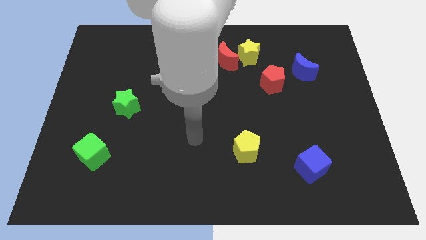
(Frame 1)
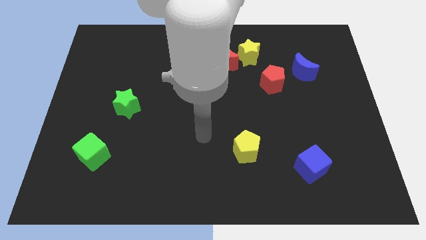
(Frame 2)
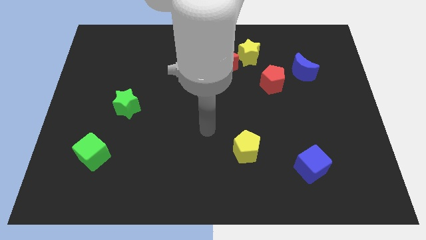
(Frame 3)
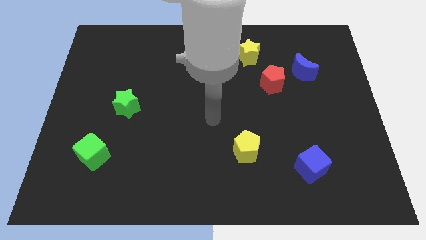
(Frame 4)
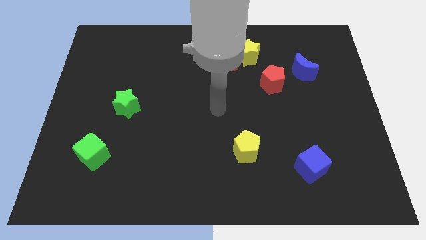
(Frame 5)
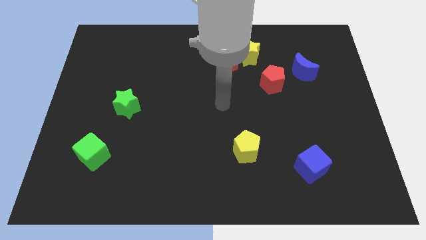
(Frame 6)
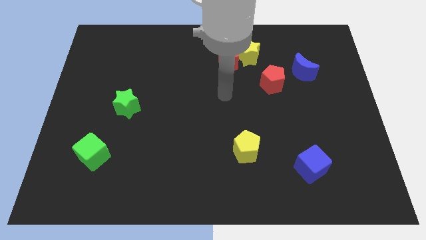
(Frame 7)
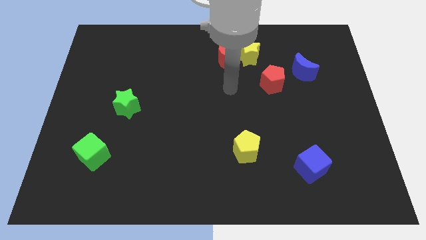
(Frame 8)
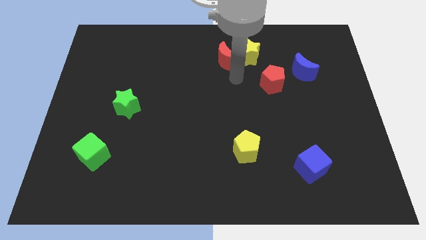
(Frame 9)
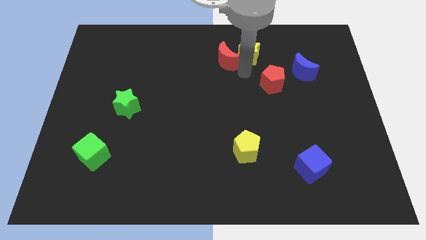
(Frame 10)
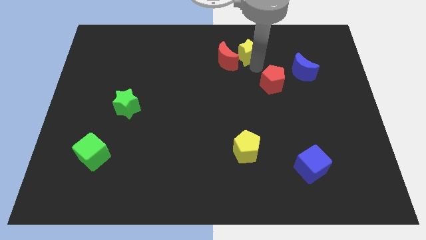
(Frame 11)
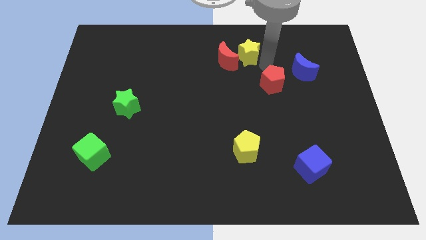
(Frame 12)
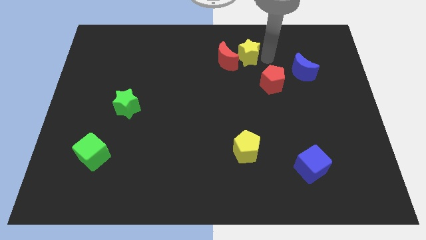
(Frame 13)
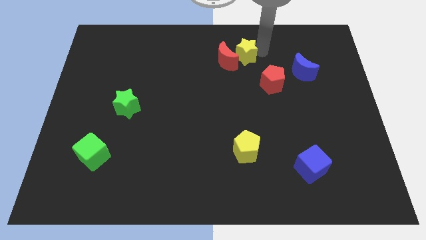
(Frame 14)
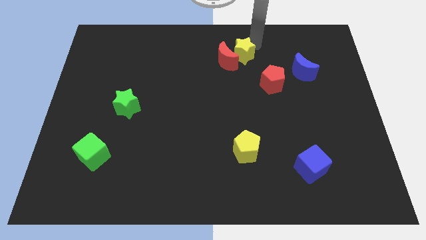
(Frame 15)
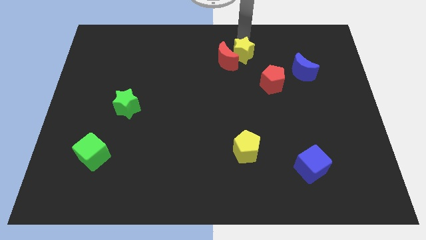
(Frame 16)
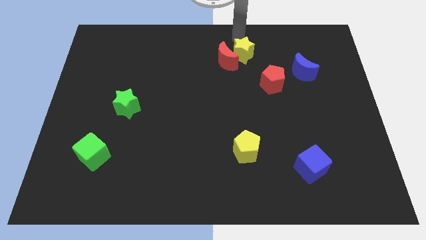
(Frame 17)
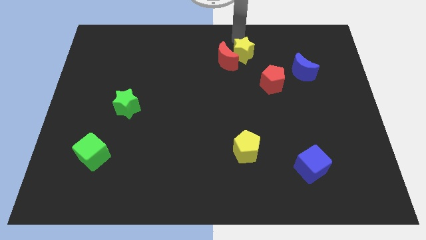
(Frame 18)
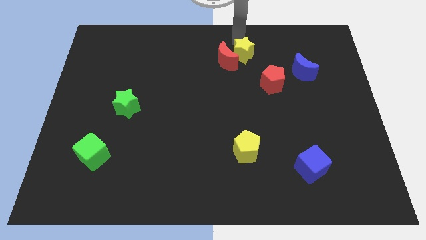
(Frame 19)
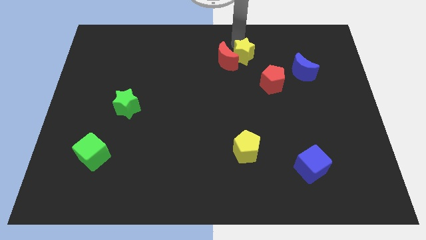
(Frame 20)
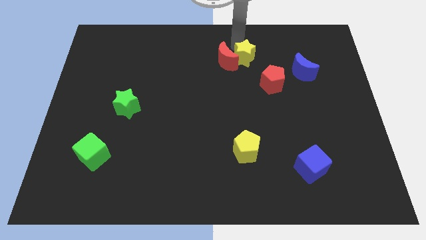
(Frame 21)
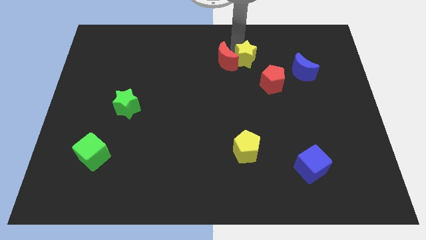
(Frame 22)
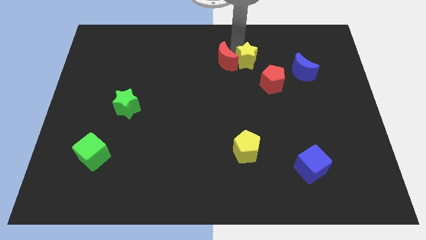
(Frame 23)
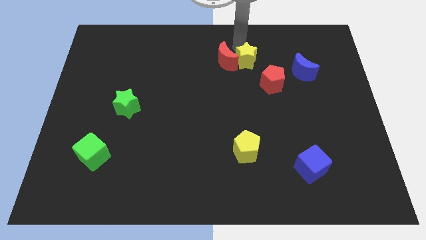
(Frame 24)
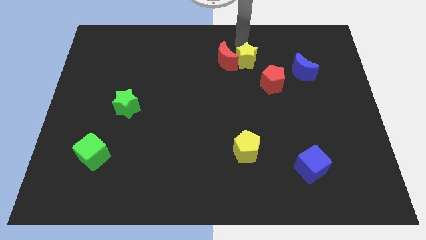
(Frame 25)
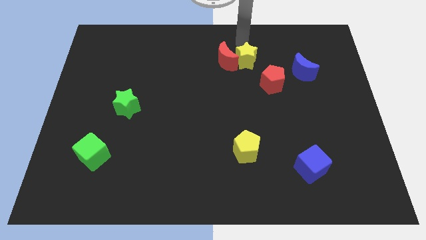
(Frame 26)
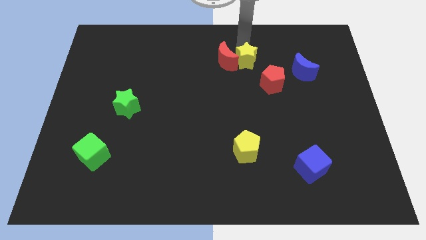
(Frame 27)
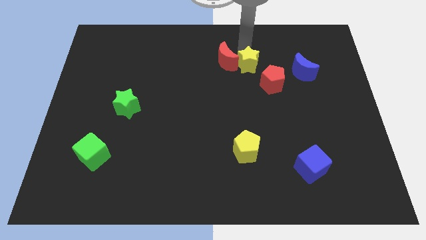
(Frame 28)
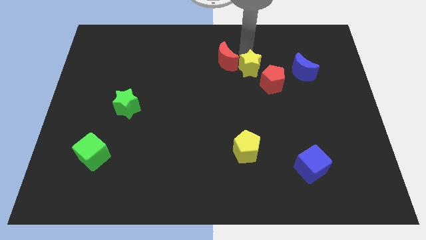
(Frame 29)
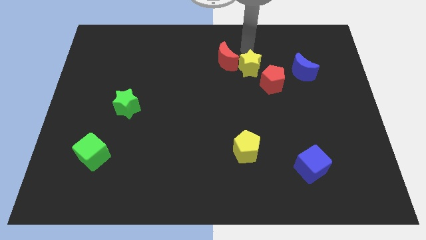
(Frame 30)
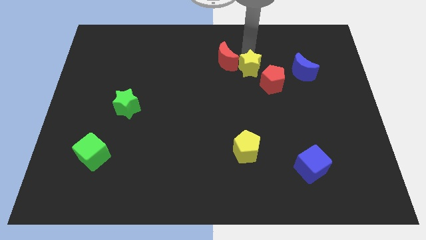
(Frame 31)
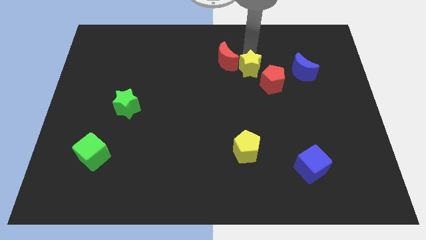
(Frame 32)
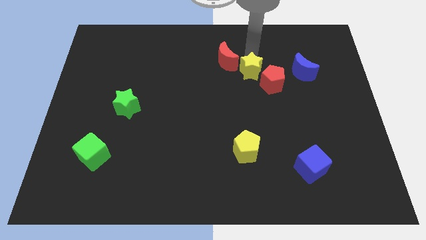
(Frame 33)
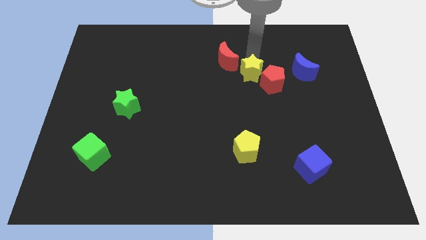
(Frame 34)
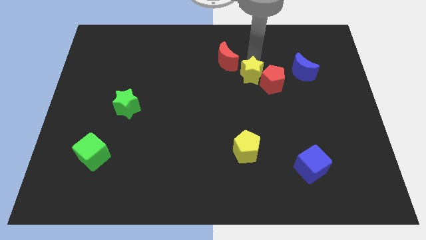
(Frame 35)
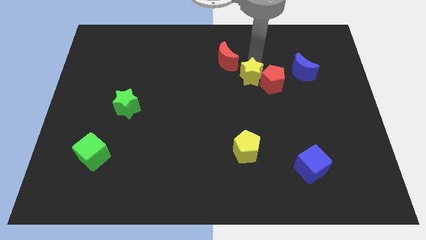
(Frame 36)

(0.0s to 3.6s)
push the yellow star somewhat down

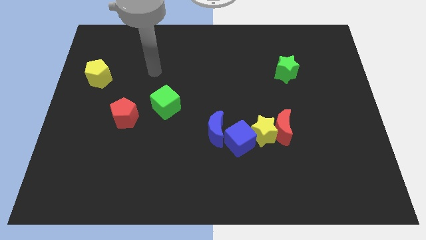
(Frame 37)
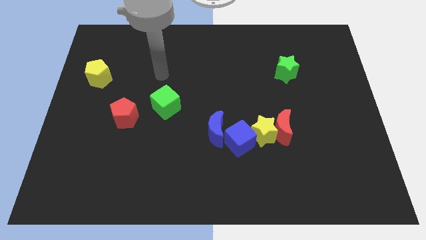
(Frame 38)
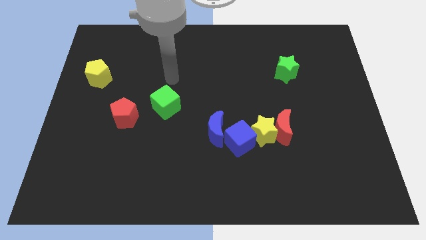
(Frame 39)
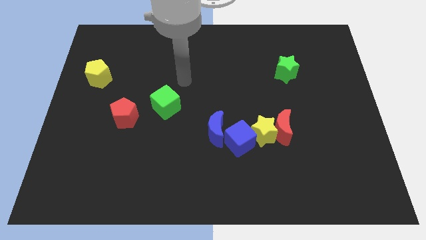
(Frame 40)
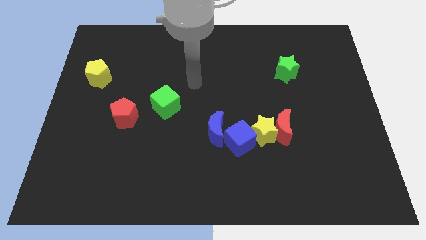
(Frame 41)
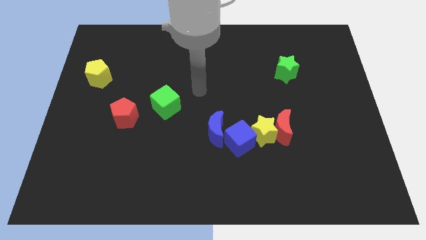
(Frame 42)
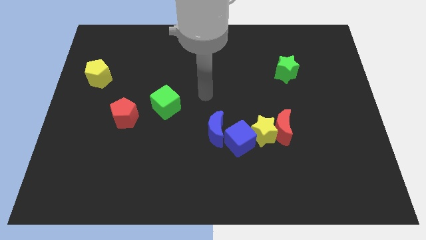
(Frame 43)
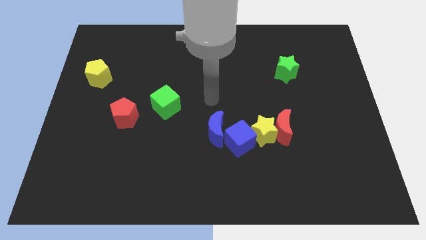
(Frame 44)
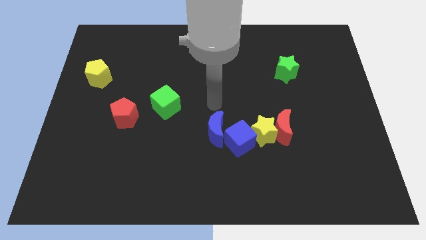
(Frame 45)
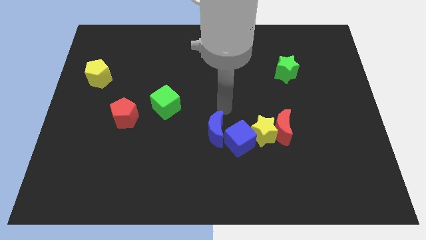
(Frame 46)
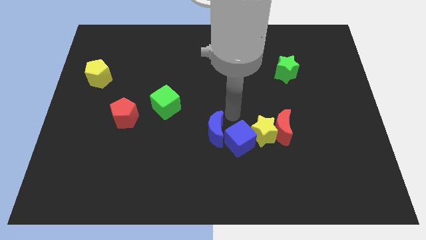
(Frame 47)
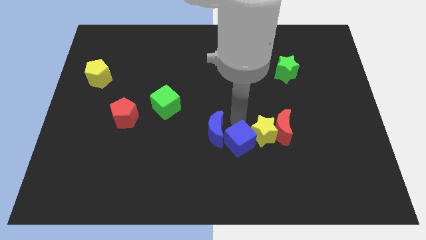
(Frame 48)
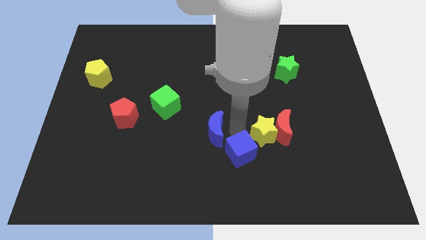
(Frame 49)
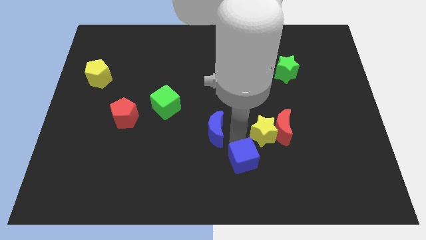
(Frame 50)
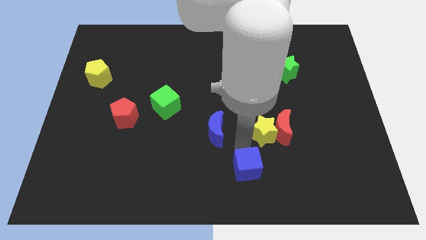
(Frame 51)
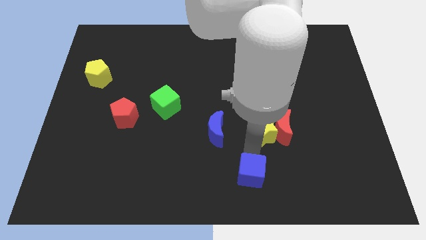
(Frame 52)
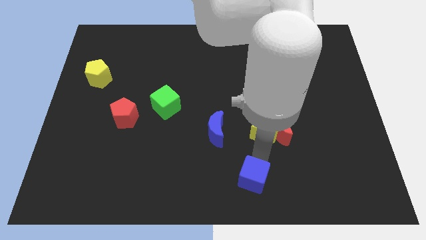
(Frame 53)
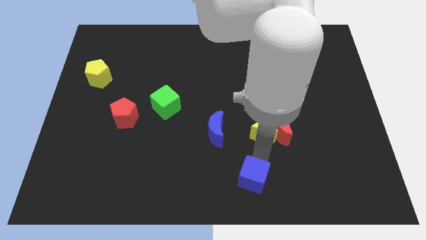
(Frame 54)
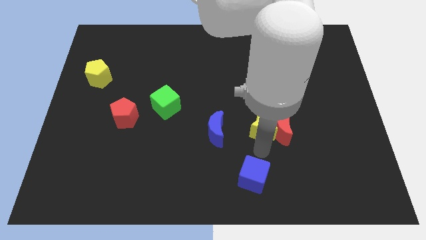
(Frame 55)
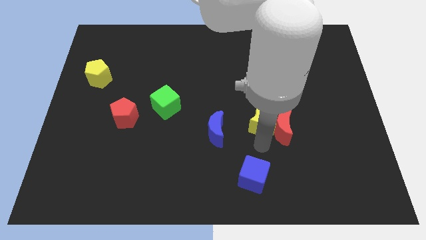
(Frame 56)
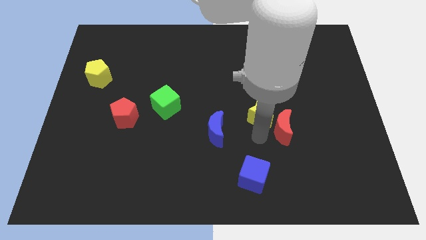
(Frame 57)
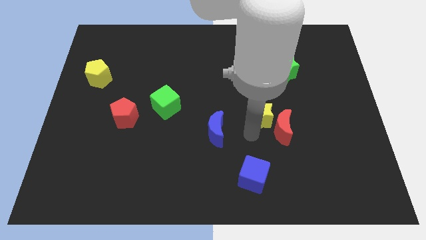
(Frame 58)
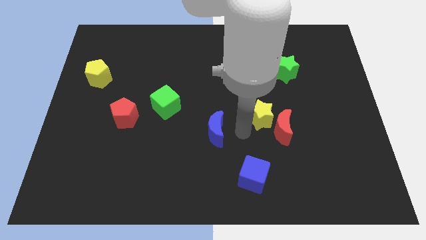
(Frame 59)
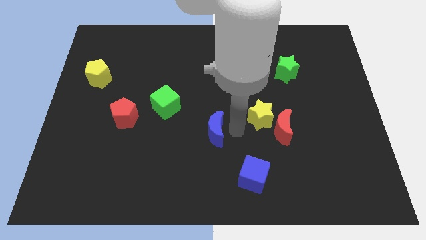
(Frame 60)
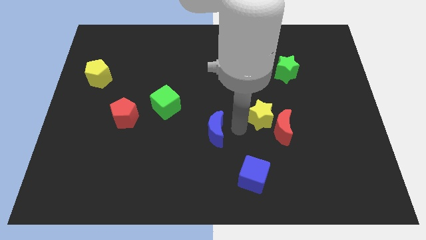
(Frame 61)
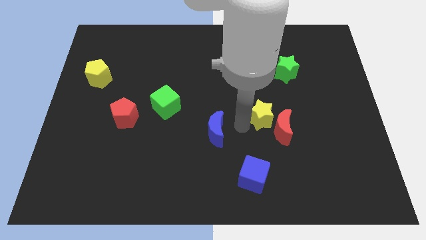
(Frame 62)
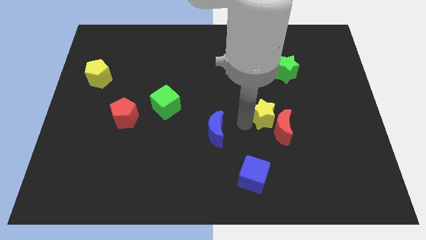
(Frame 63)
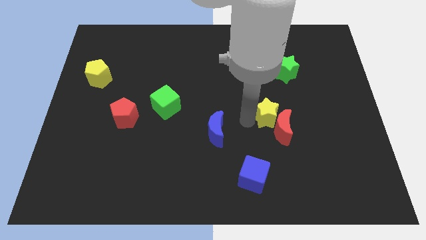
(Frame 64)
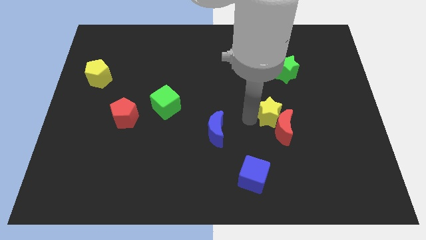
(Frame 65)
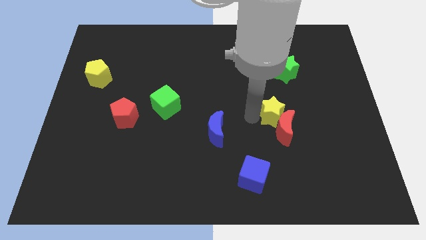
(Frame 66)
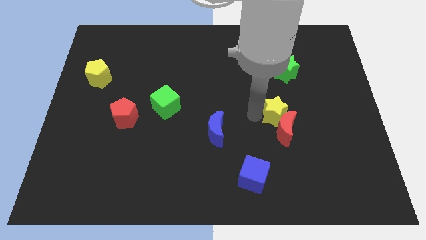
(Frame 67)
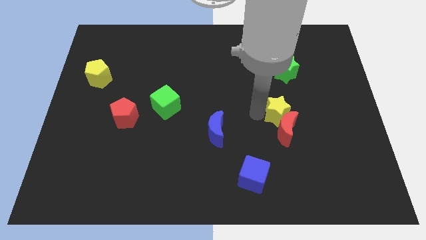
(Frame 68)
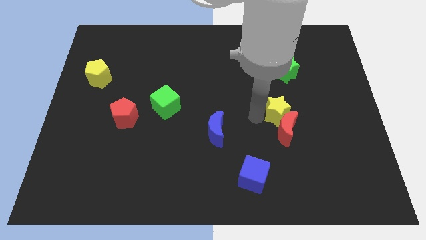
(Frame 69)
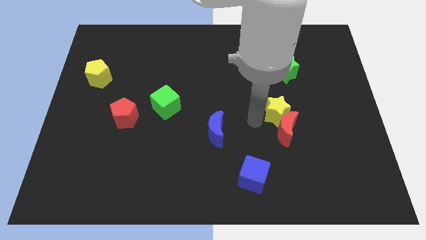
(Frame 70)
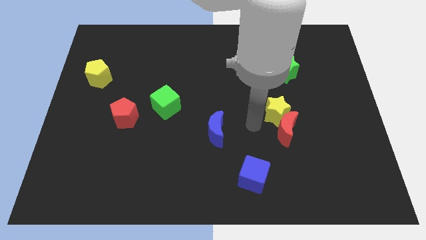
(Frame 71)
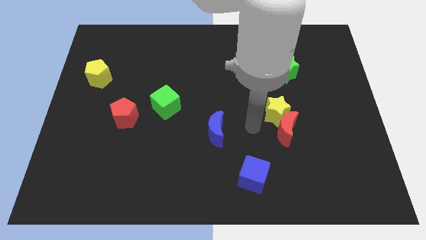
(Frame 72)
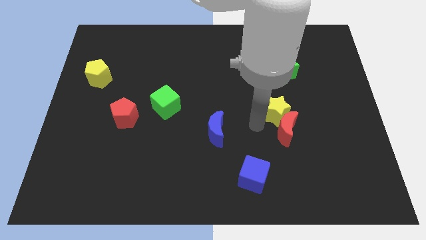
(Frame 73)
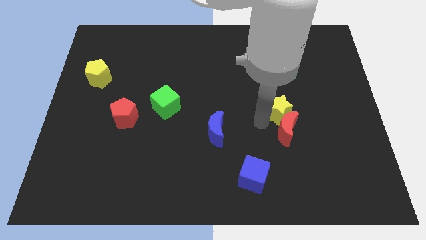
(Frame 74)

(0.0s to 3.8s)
slide the yellow star upwards and right diagonally a bit

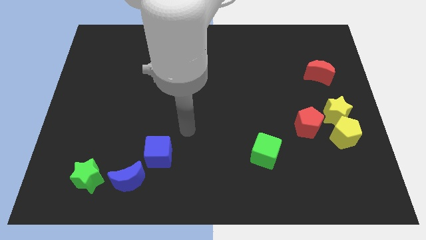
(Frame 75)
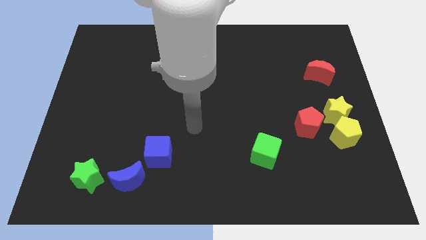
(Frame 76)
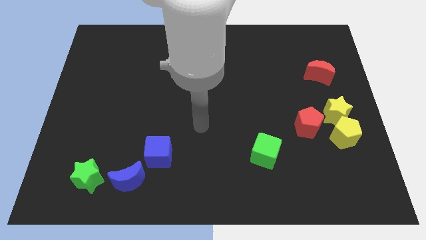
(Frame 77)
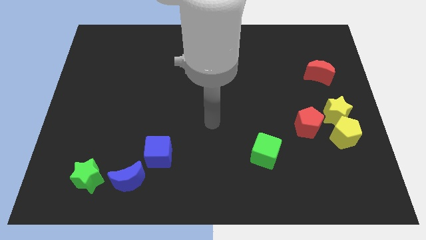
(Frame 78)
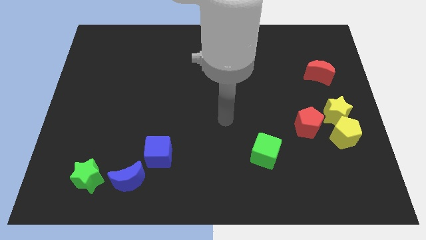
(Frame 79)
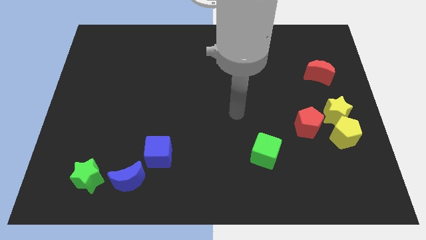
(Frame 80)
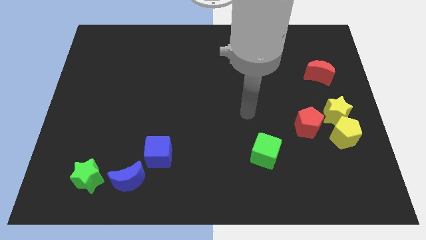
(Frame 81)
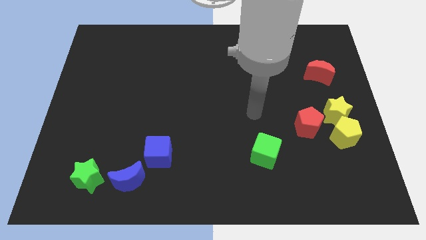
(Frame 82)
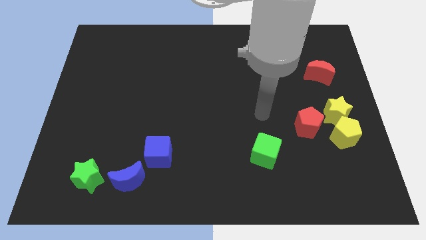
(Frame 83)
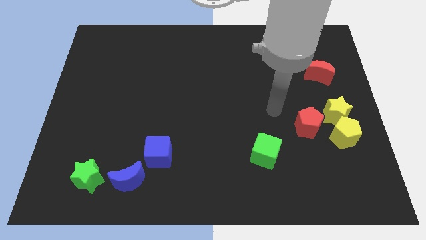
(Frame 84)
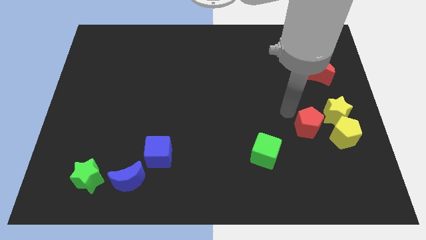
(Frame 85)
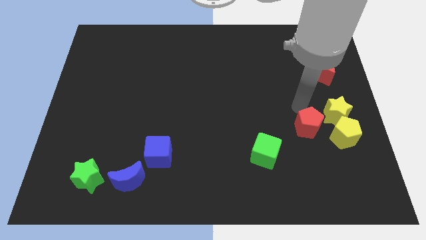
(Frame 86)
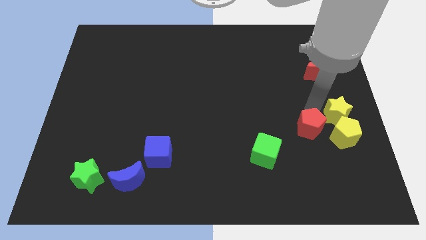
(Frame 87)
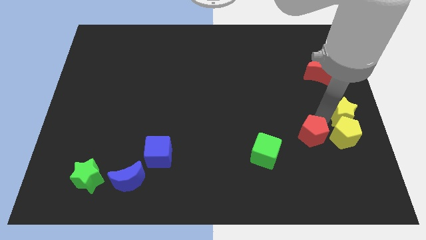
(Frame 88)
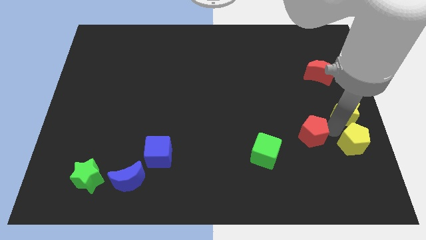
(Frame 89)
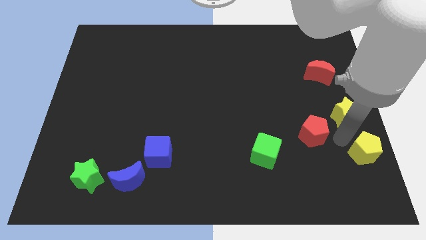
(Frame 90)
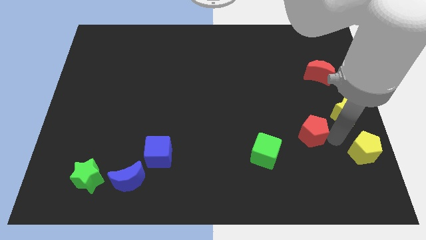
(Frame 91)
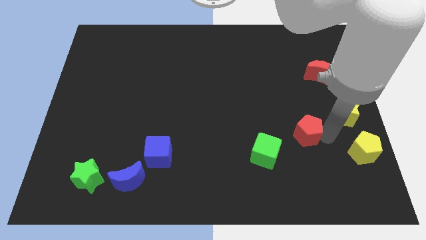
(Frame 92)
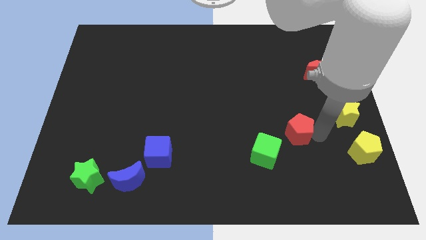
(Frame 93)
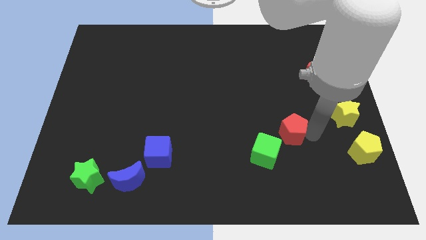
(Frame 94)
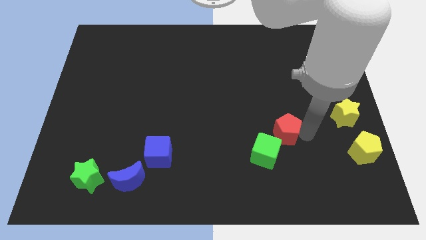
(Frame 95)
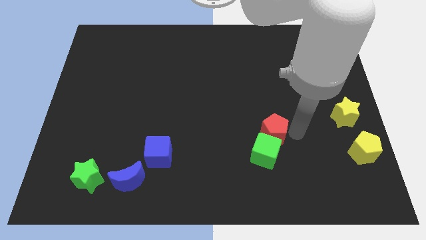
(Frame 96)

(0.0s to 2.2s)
slide the red pentagon somewhat left
